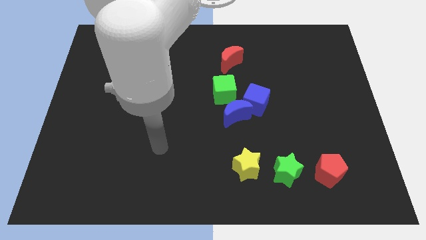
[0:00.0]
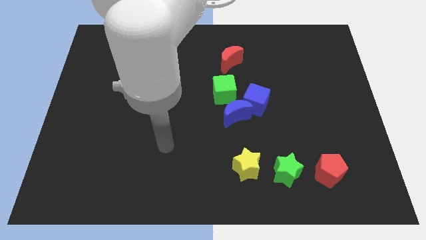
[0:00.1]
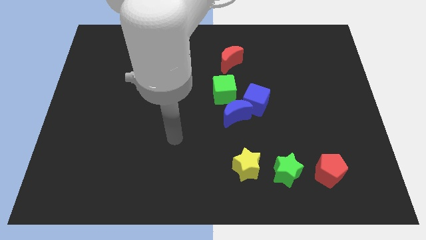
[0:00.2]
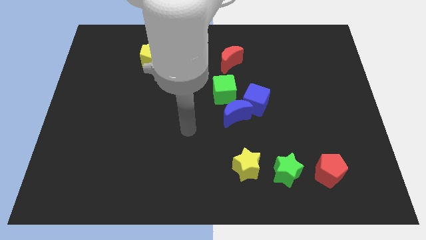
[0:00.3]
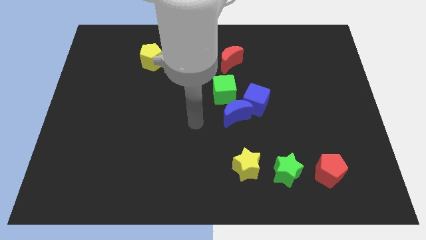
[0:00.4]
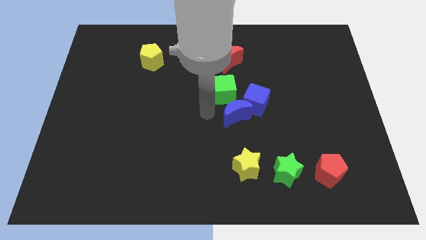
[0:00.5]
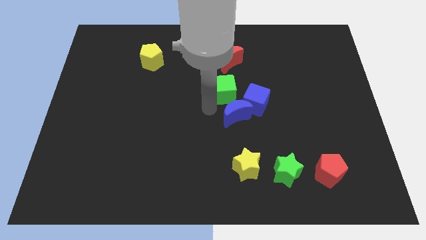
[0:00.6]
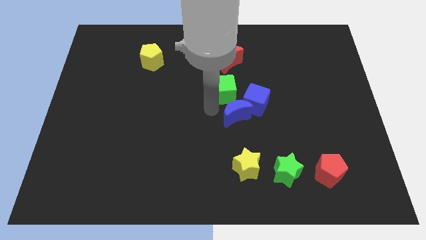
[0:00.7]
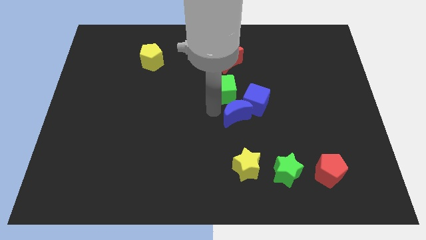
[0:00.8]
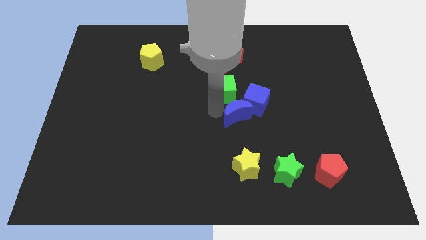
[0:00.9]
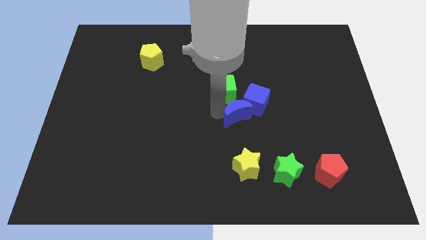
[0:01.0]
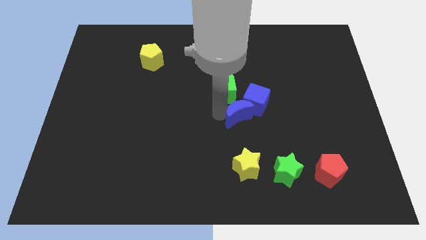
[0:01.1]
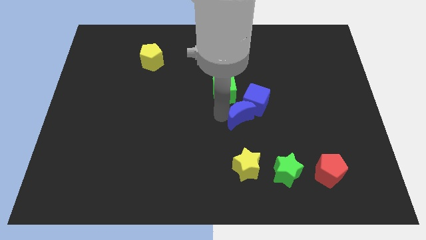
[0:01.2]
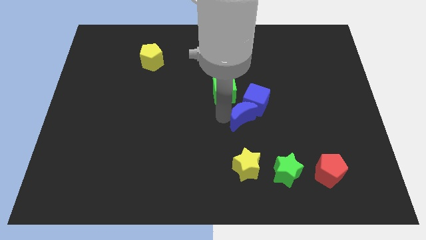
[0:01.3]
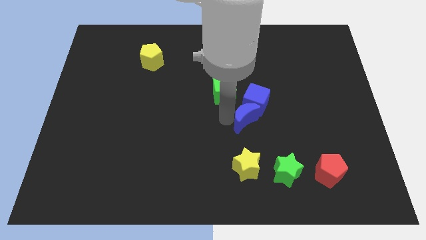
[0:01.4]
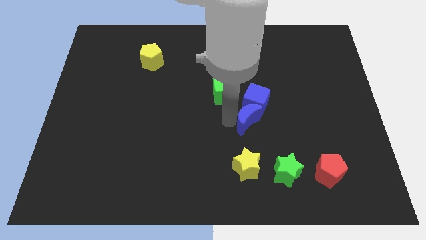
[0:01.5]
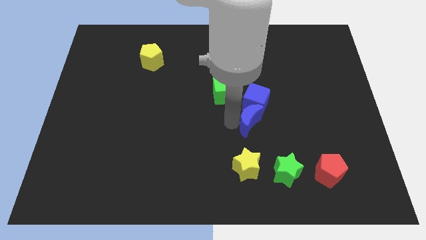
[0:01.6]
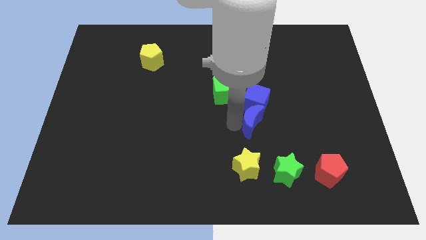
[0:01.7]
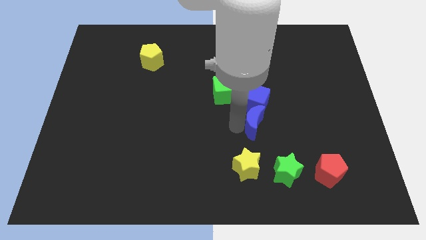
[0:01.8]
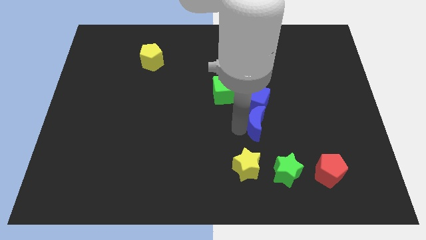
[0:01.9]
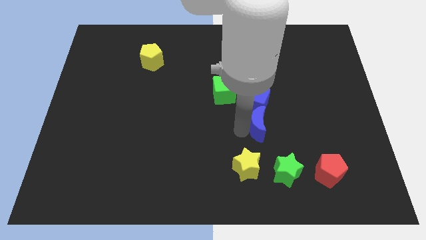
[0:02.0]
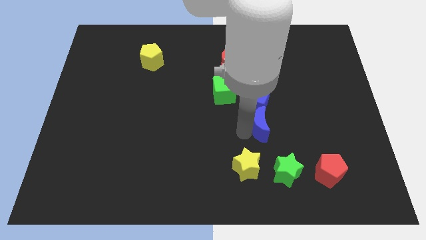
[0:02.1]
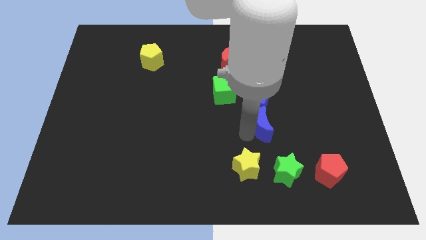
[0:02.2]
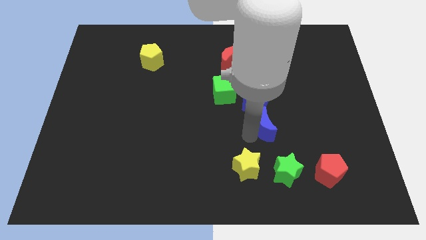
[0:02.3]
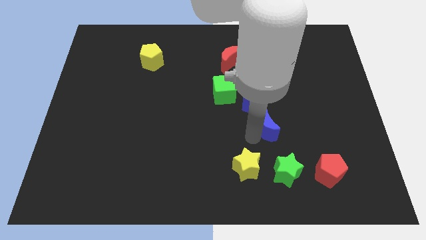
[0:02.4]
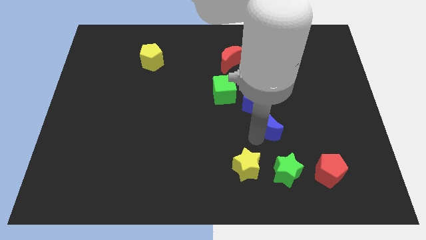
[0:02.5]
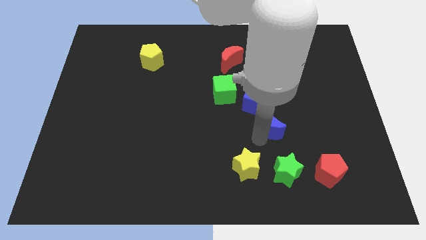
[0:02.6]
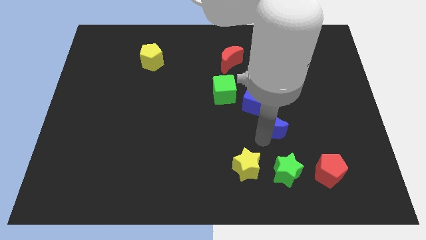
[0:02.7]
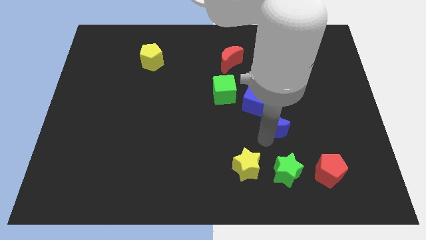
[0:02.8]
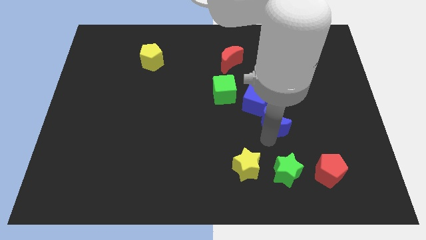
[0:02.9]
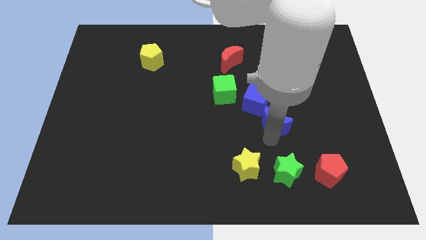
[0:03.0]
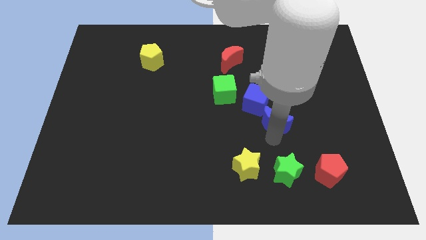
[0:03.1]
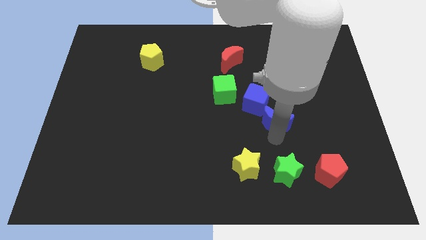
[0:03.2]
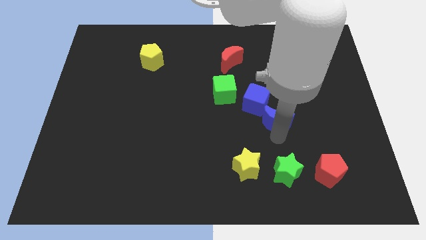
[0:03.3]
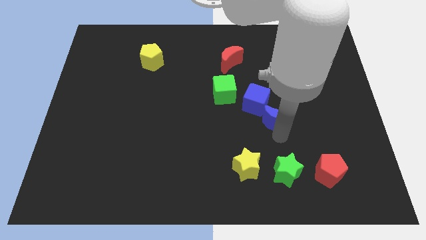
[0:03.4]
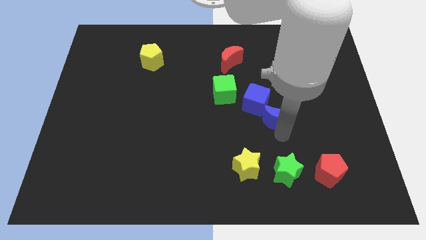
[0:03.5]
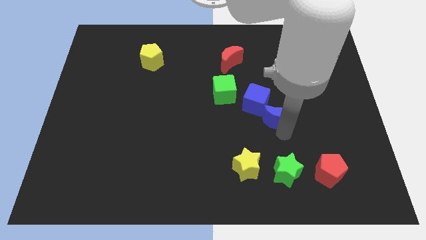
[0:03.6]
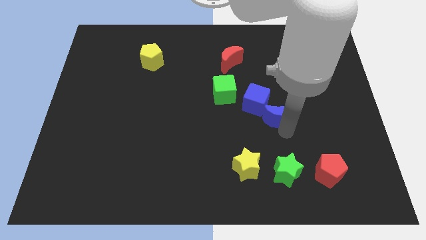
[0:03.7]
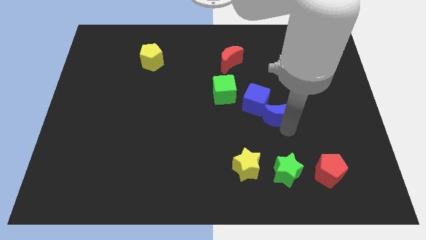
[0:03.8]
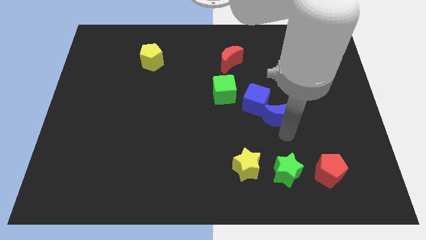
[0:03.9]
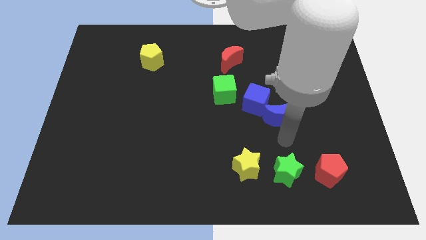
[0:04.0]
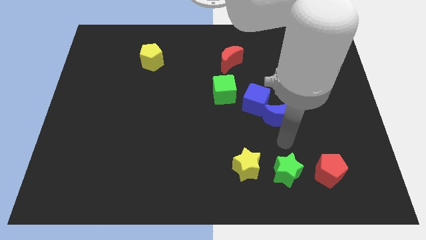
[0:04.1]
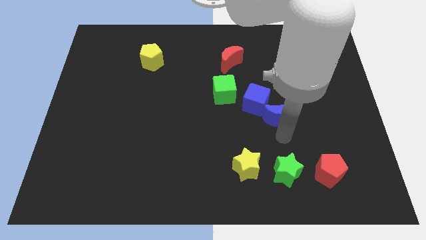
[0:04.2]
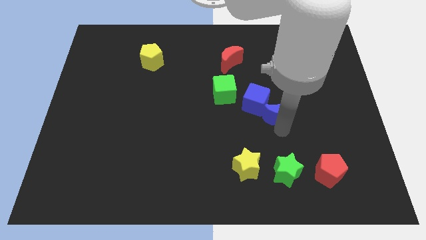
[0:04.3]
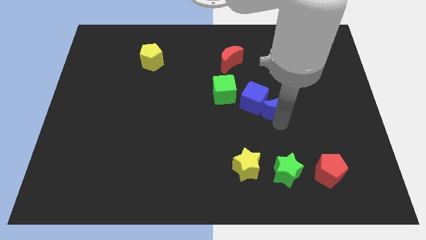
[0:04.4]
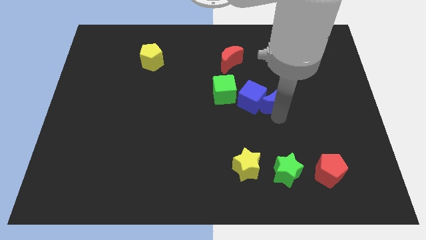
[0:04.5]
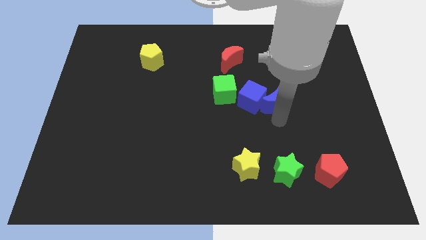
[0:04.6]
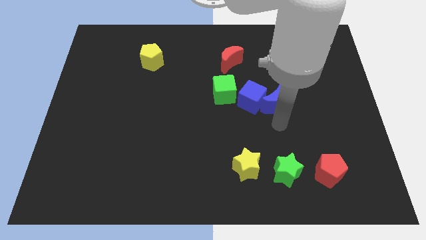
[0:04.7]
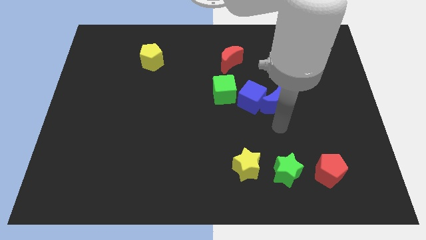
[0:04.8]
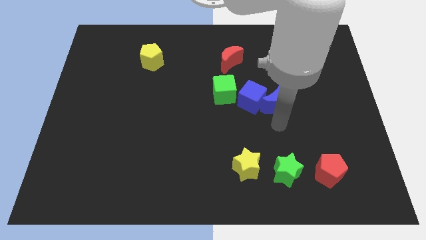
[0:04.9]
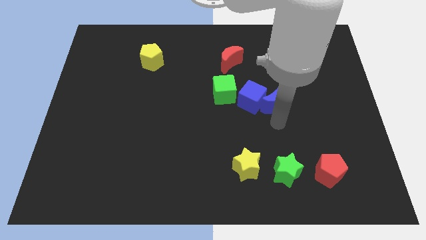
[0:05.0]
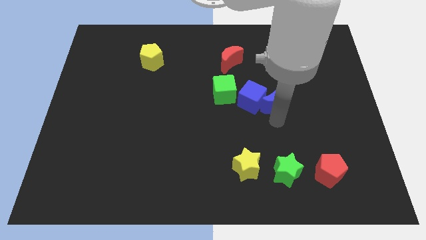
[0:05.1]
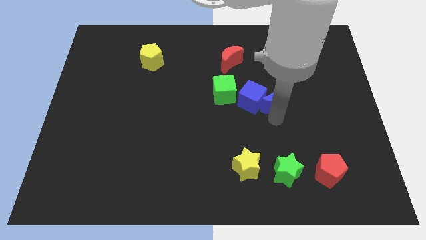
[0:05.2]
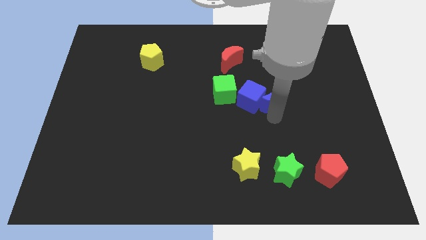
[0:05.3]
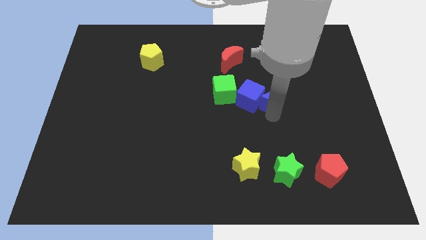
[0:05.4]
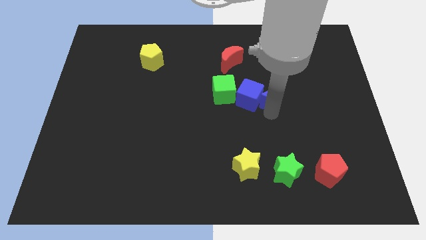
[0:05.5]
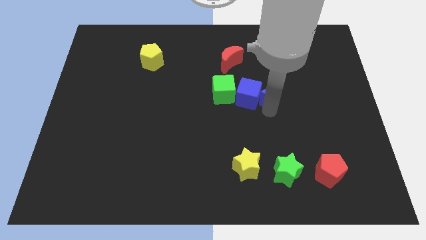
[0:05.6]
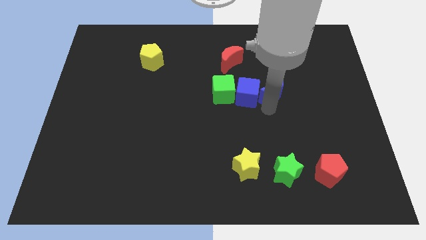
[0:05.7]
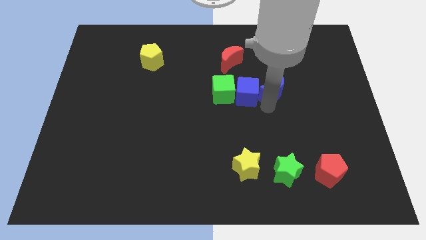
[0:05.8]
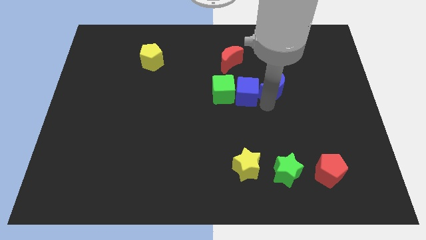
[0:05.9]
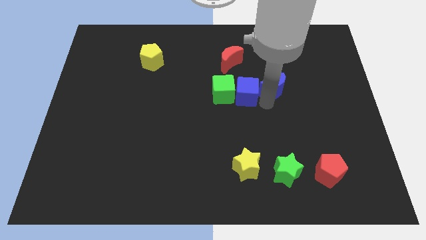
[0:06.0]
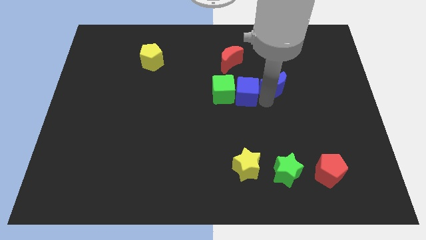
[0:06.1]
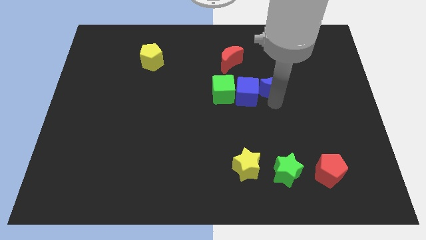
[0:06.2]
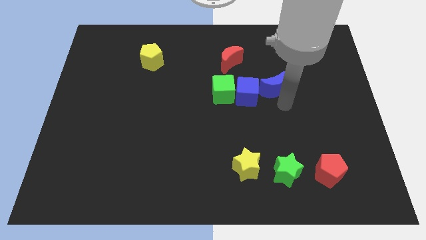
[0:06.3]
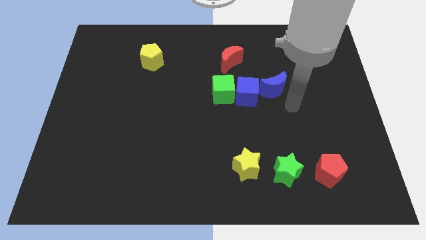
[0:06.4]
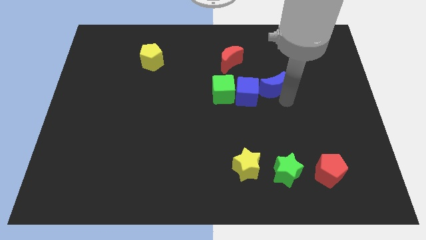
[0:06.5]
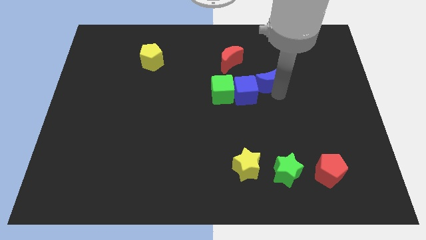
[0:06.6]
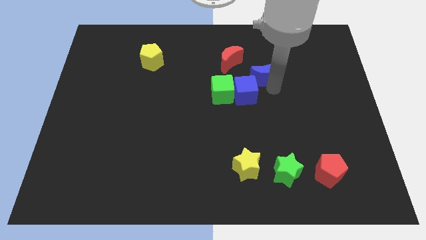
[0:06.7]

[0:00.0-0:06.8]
slide the blue moon to the top of the blue cube

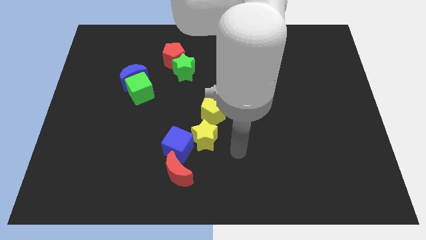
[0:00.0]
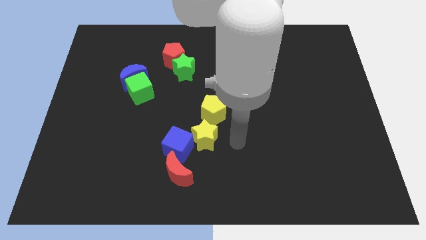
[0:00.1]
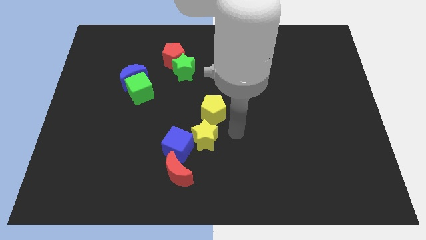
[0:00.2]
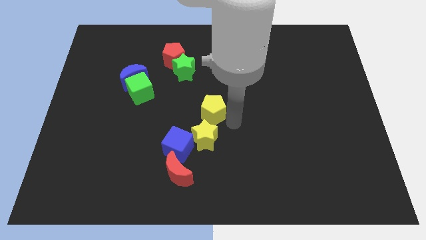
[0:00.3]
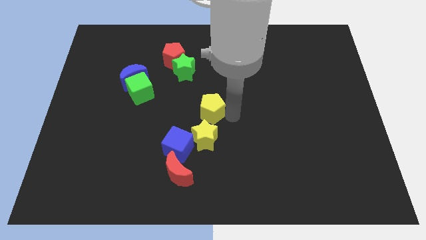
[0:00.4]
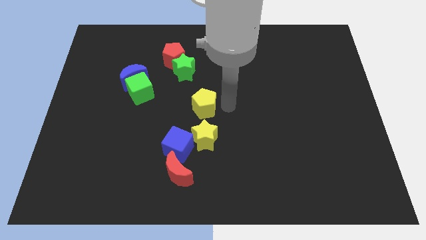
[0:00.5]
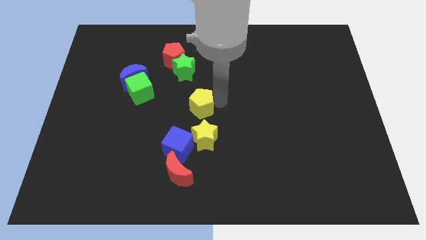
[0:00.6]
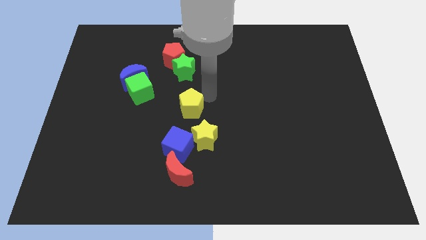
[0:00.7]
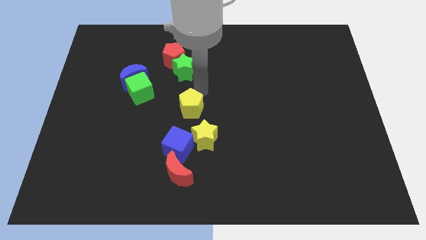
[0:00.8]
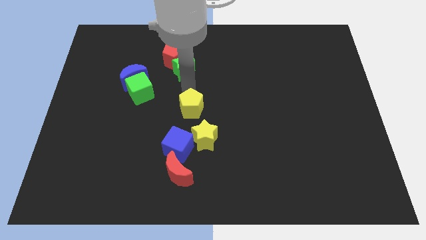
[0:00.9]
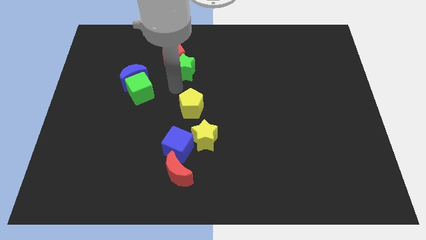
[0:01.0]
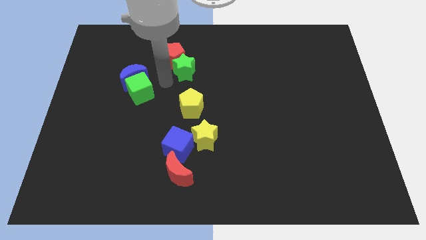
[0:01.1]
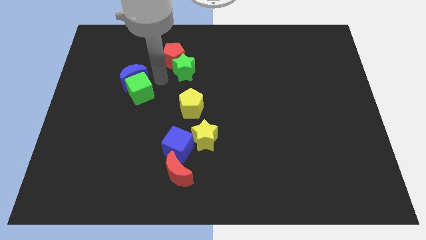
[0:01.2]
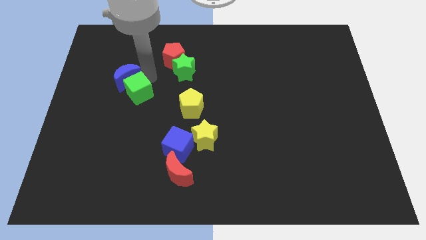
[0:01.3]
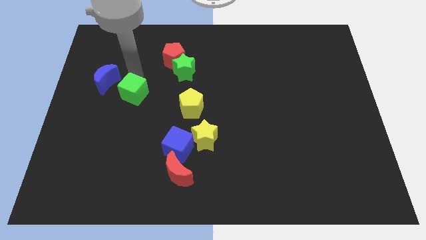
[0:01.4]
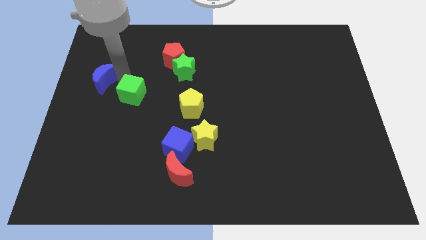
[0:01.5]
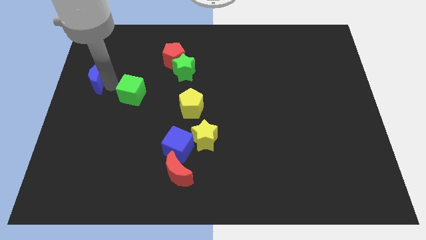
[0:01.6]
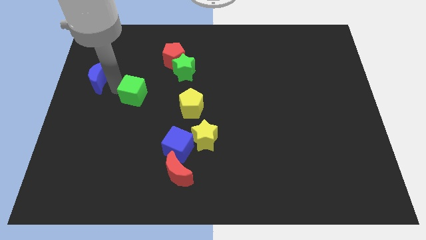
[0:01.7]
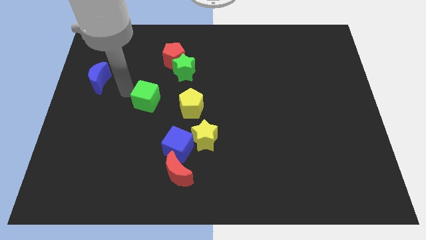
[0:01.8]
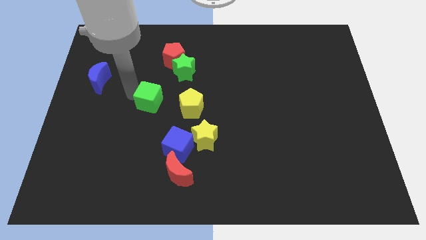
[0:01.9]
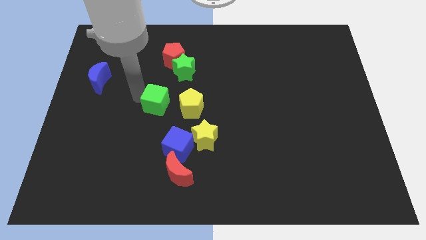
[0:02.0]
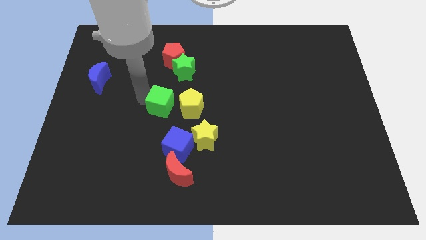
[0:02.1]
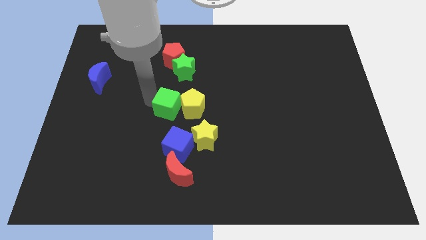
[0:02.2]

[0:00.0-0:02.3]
push the green cube to the bottom left side of the yellow pentagon
